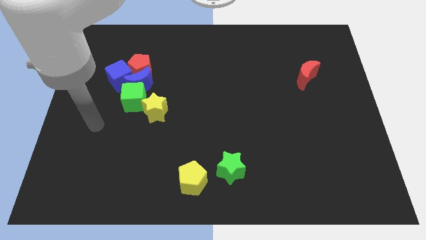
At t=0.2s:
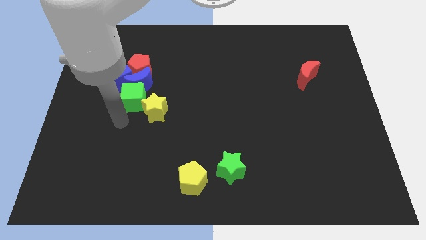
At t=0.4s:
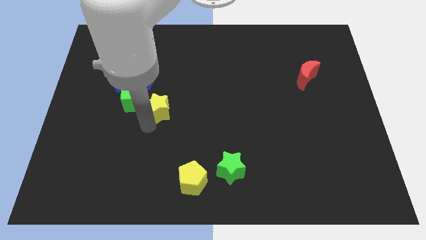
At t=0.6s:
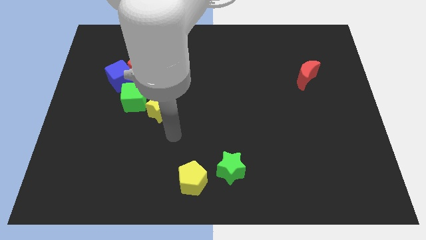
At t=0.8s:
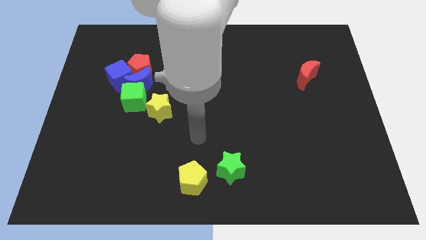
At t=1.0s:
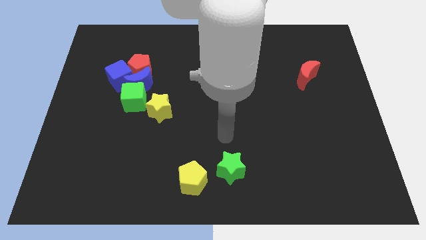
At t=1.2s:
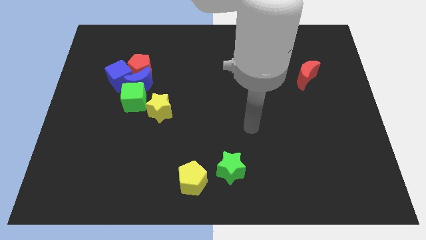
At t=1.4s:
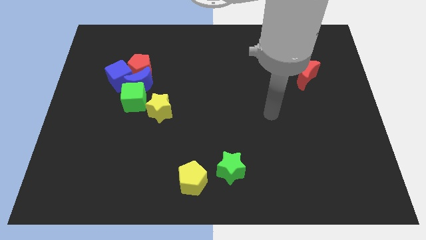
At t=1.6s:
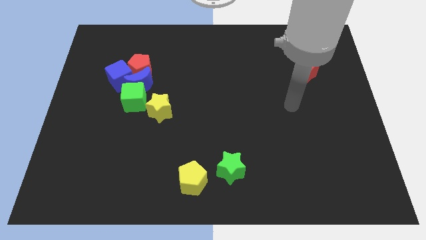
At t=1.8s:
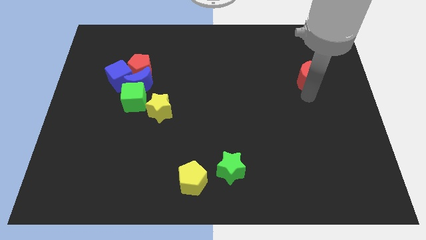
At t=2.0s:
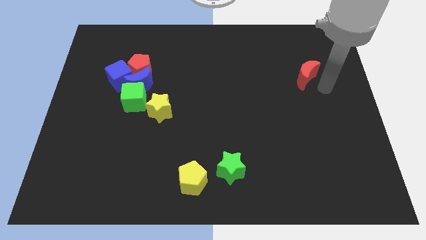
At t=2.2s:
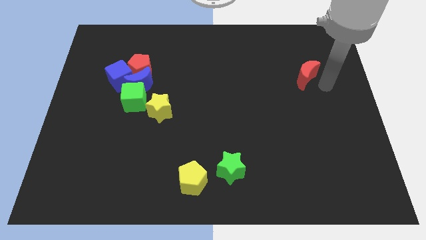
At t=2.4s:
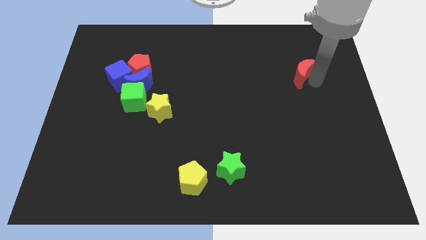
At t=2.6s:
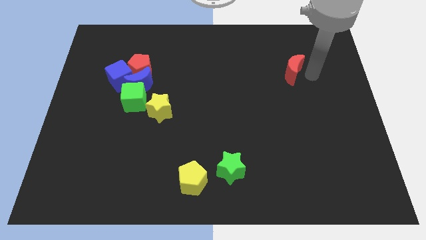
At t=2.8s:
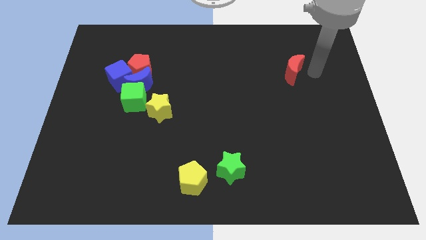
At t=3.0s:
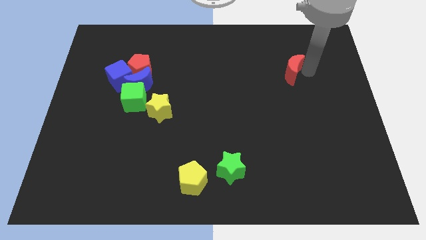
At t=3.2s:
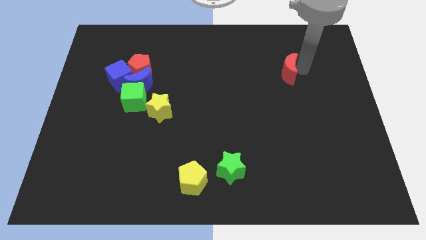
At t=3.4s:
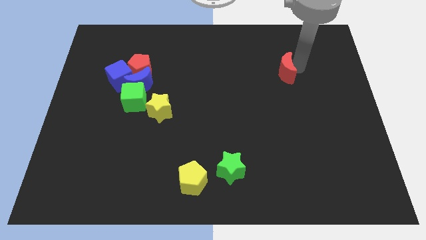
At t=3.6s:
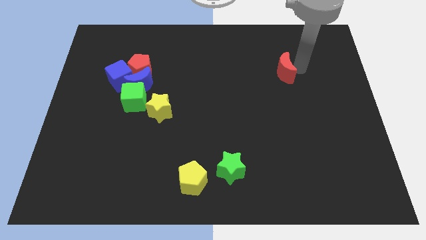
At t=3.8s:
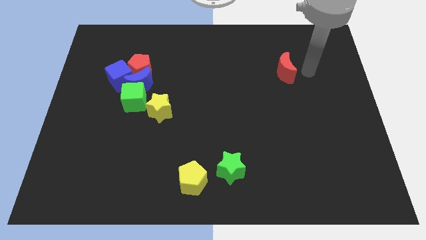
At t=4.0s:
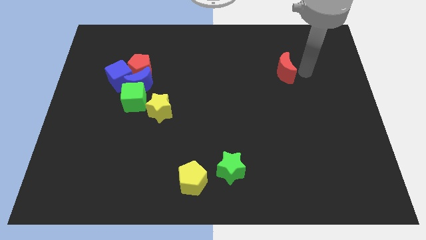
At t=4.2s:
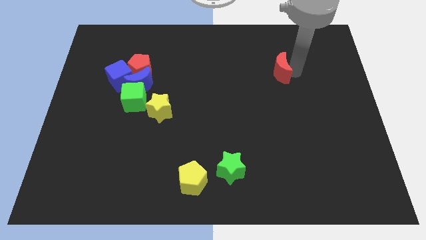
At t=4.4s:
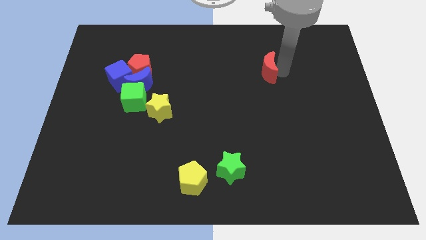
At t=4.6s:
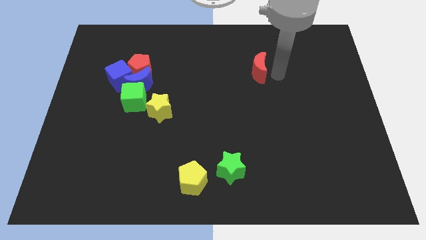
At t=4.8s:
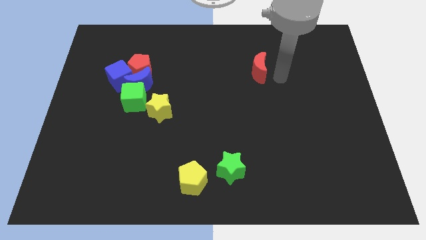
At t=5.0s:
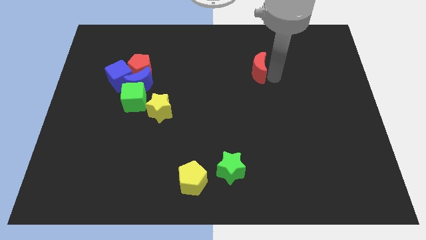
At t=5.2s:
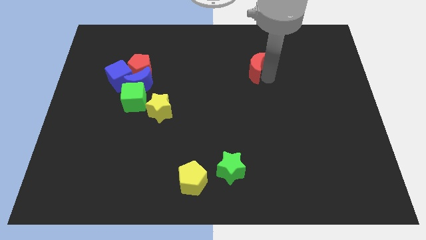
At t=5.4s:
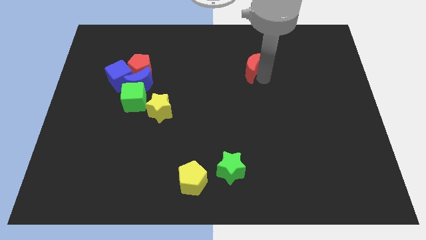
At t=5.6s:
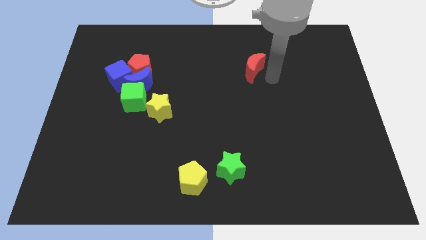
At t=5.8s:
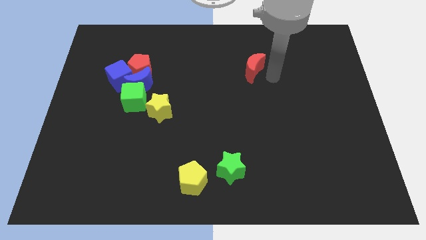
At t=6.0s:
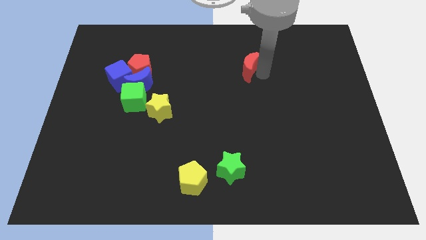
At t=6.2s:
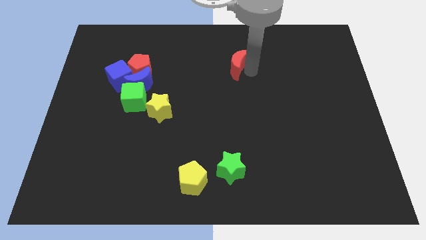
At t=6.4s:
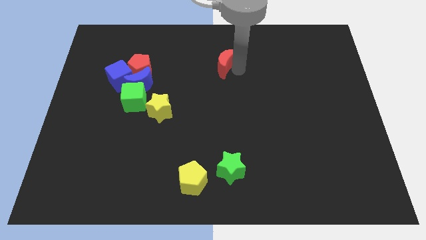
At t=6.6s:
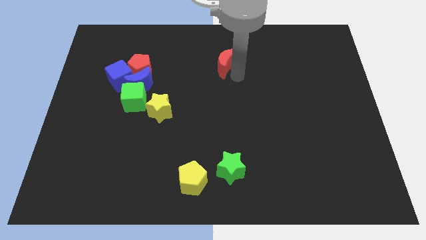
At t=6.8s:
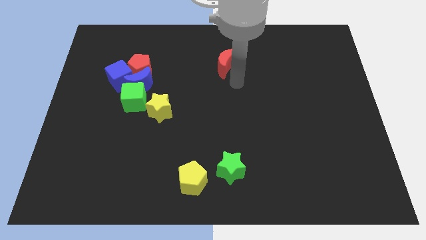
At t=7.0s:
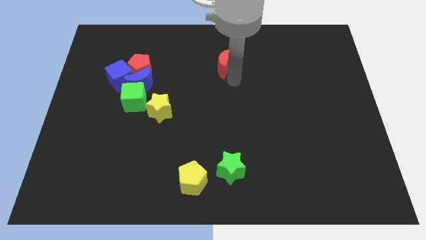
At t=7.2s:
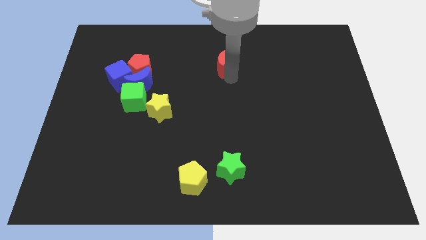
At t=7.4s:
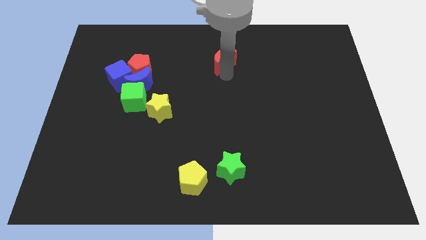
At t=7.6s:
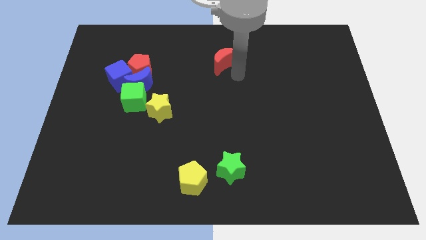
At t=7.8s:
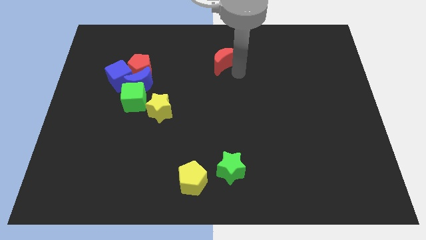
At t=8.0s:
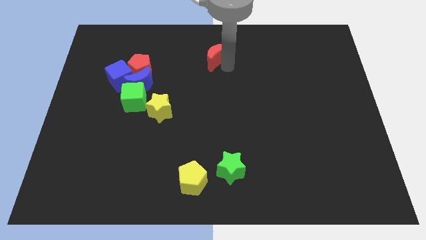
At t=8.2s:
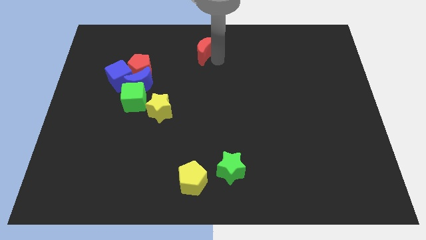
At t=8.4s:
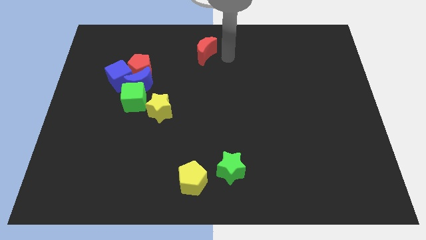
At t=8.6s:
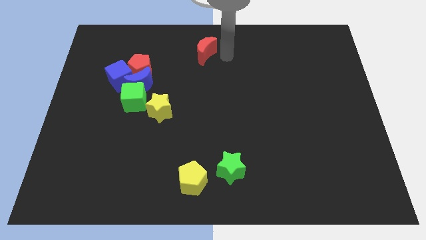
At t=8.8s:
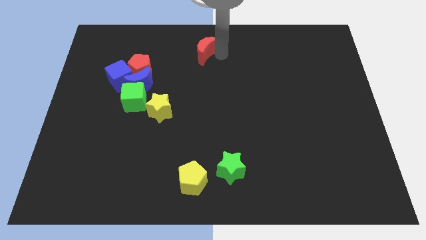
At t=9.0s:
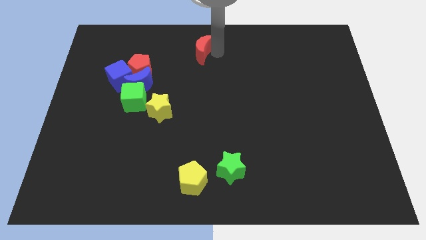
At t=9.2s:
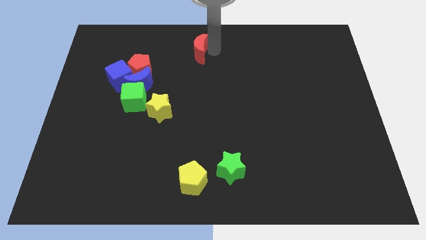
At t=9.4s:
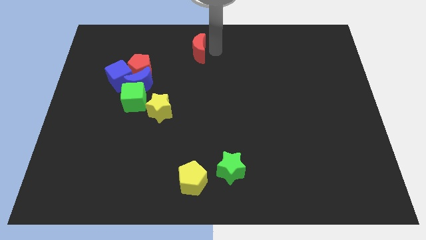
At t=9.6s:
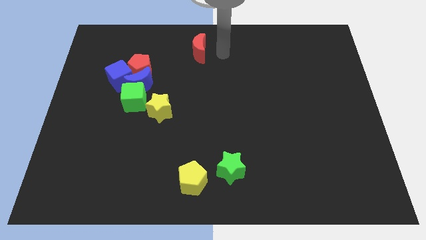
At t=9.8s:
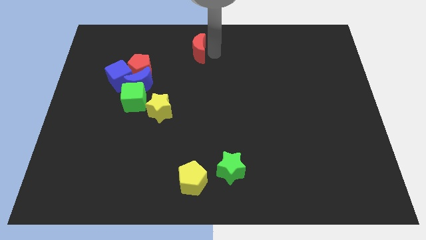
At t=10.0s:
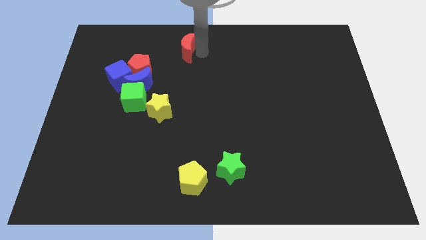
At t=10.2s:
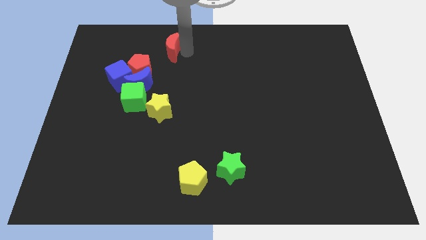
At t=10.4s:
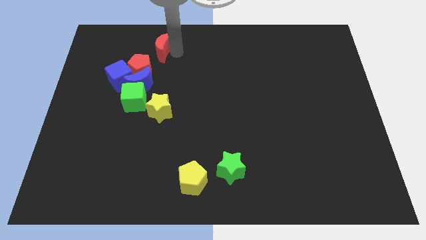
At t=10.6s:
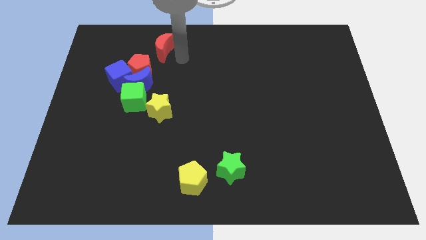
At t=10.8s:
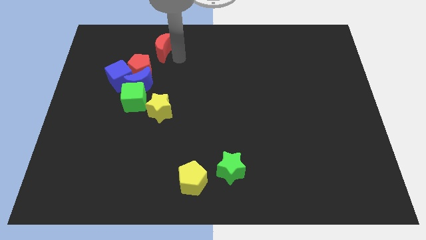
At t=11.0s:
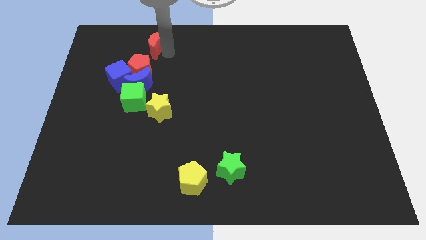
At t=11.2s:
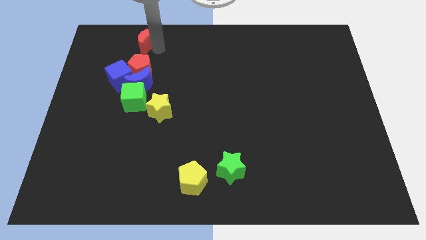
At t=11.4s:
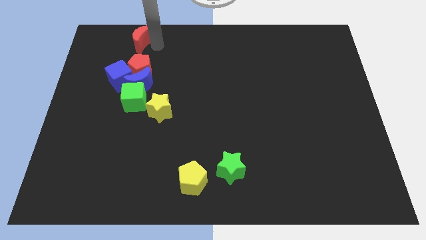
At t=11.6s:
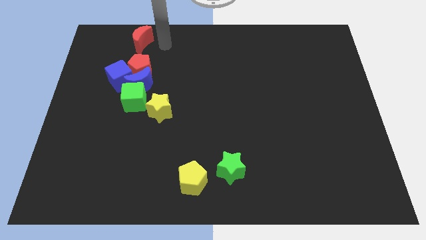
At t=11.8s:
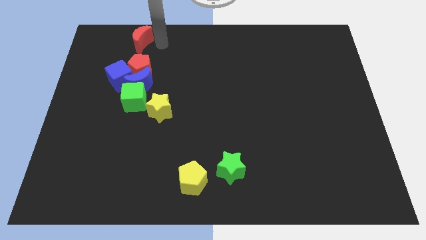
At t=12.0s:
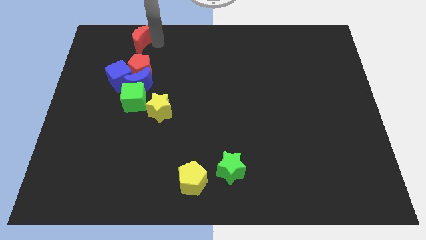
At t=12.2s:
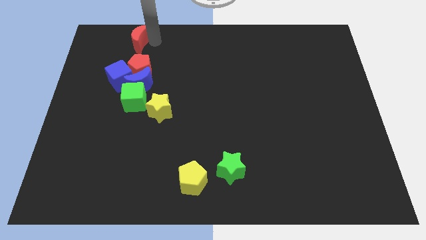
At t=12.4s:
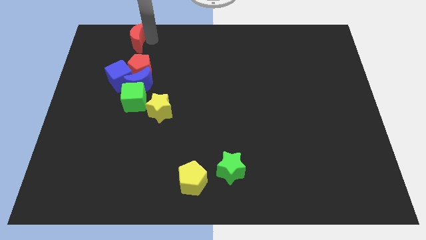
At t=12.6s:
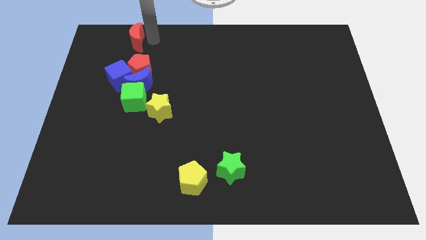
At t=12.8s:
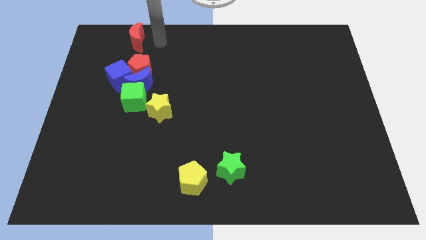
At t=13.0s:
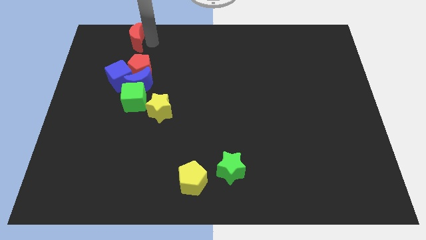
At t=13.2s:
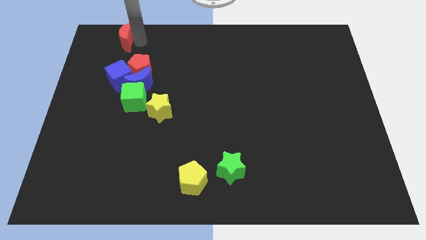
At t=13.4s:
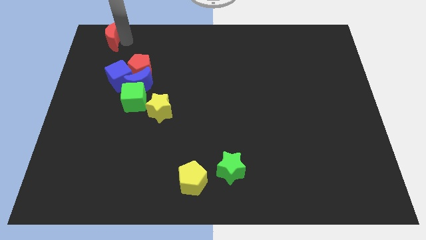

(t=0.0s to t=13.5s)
slide the red moon to the top left of the board

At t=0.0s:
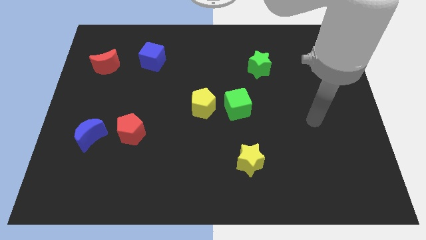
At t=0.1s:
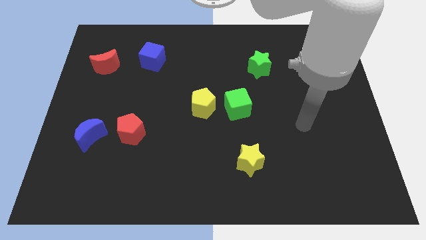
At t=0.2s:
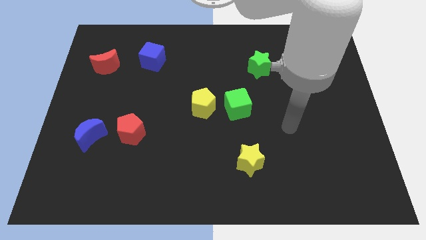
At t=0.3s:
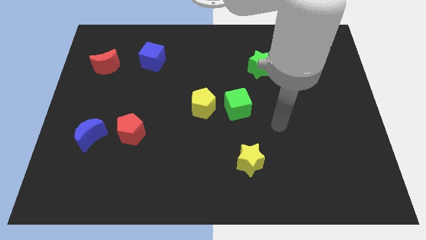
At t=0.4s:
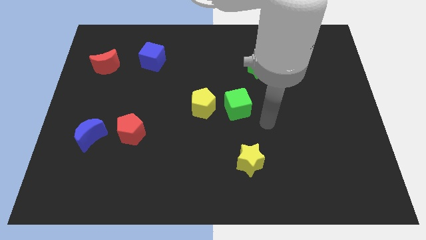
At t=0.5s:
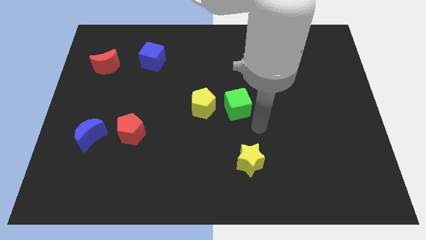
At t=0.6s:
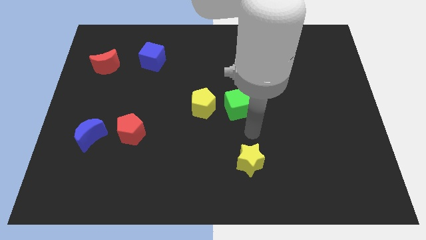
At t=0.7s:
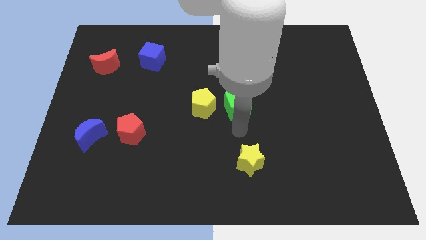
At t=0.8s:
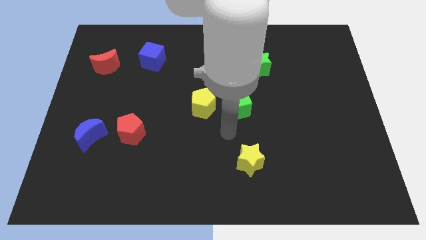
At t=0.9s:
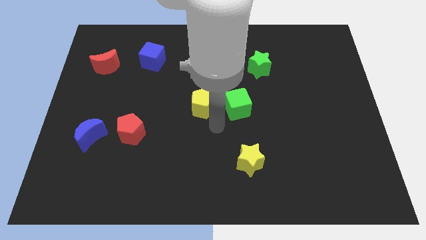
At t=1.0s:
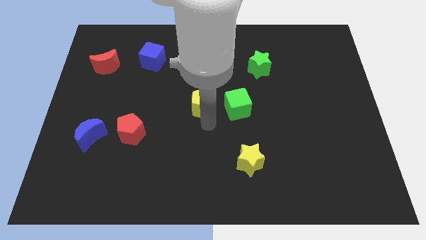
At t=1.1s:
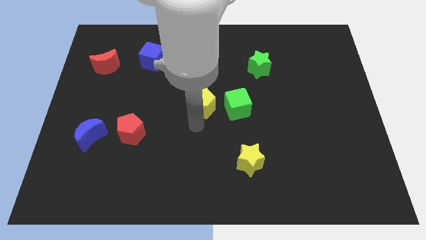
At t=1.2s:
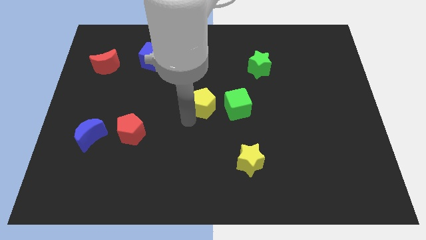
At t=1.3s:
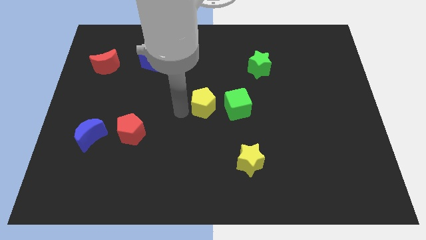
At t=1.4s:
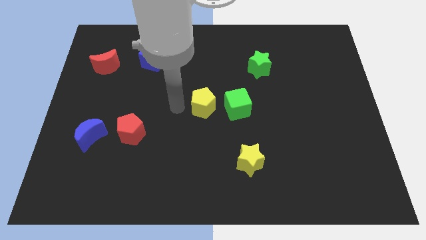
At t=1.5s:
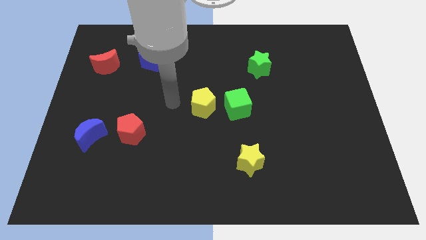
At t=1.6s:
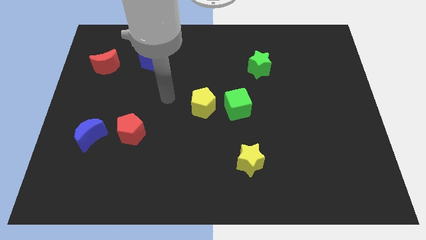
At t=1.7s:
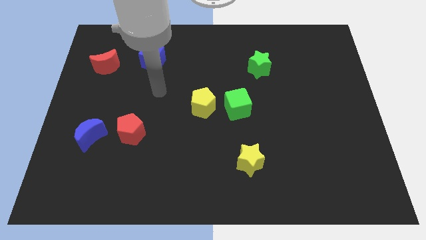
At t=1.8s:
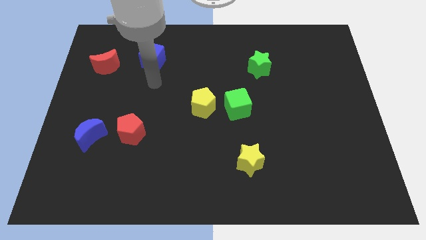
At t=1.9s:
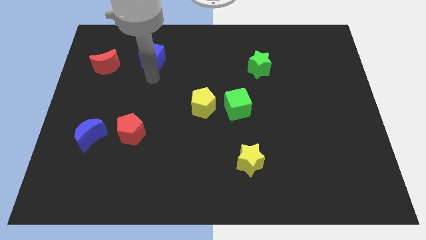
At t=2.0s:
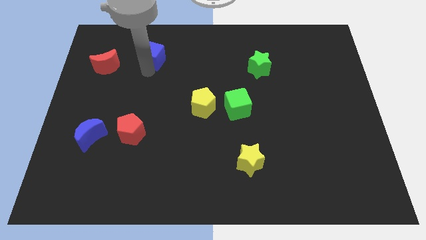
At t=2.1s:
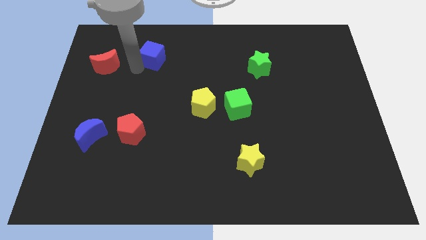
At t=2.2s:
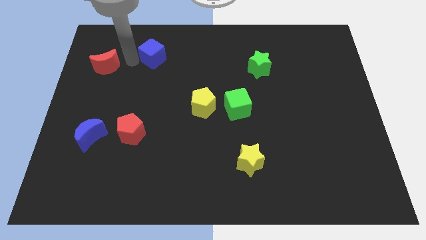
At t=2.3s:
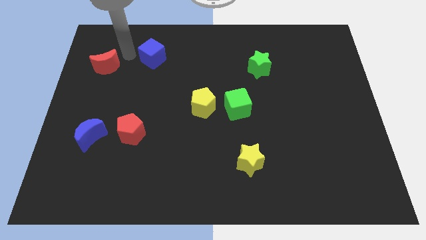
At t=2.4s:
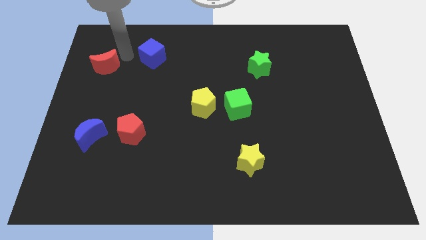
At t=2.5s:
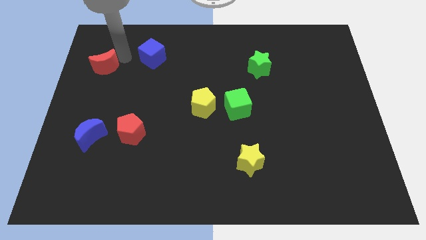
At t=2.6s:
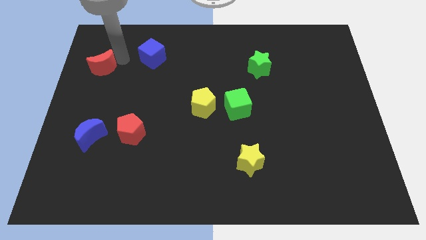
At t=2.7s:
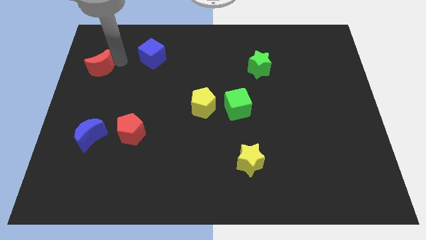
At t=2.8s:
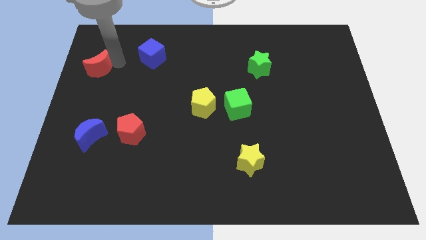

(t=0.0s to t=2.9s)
push the red moon to the center left
